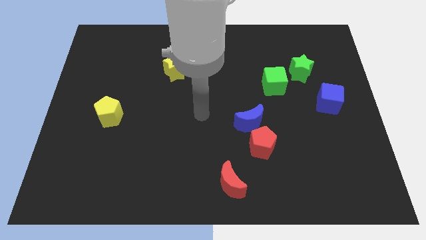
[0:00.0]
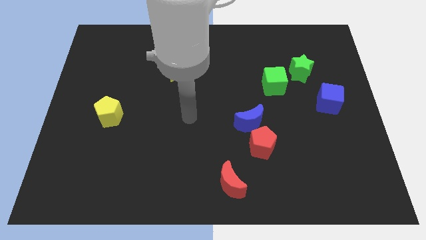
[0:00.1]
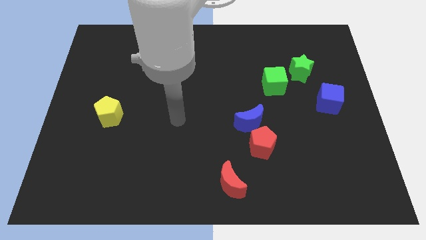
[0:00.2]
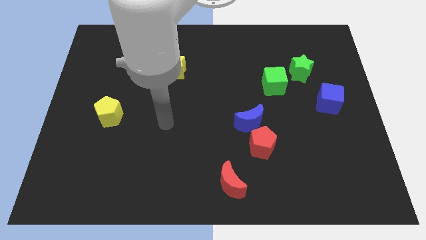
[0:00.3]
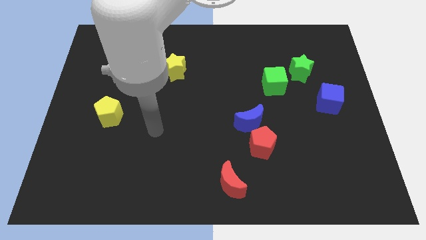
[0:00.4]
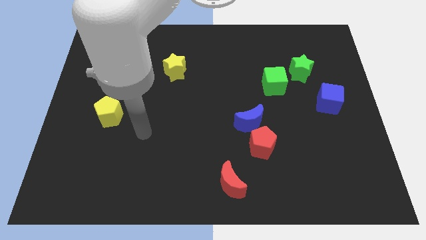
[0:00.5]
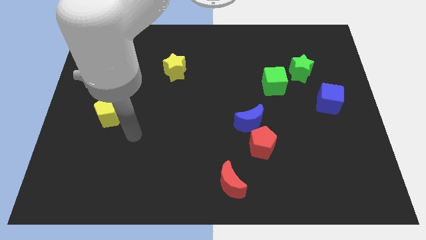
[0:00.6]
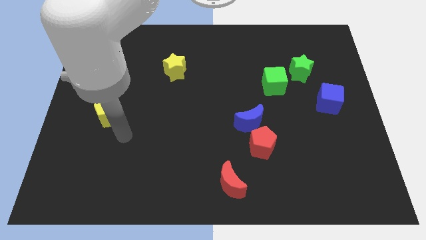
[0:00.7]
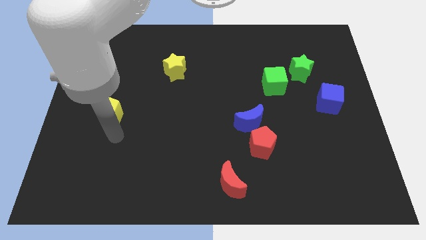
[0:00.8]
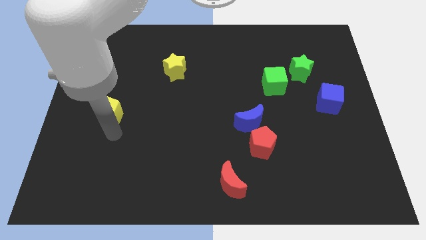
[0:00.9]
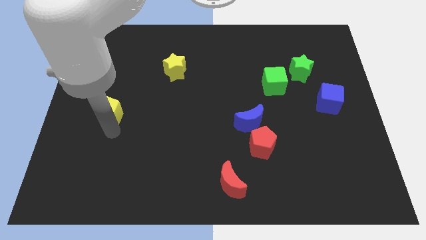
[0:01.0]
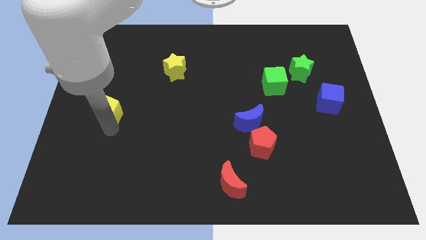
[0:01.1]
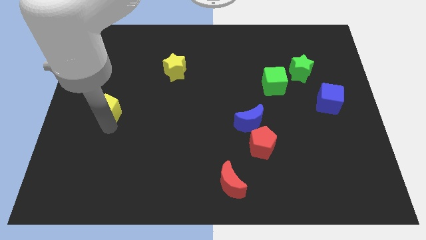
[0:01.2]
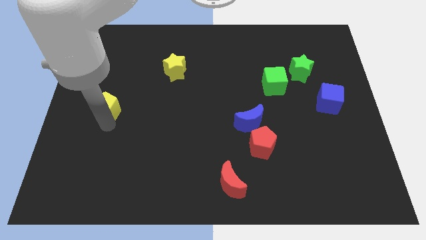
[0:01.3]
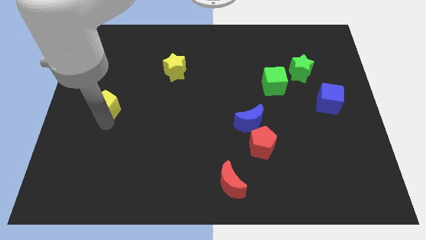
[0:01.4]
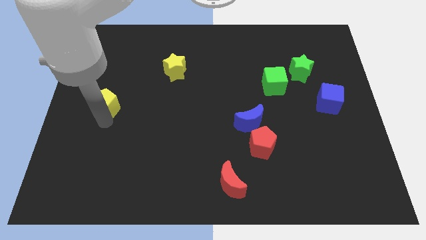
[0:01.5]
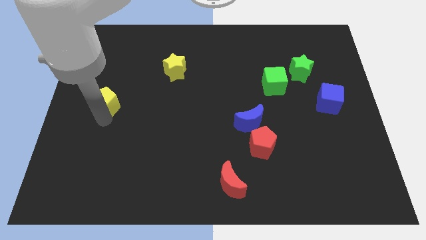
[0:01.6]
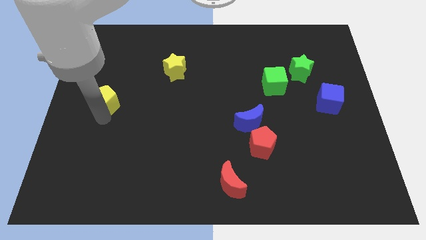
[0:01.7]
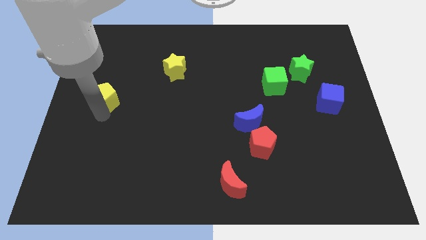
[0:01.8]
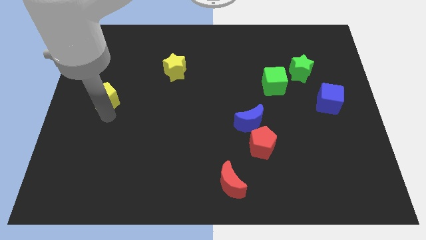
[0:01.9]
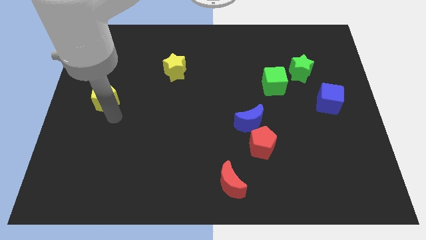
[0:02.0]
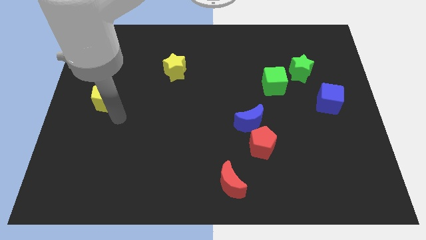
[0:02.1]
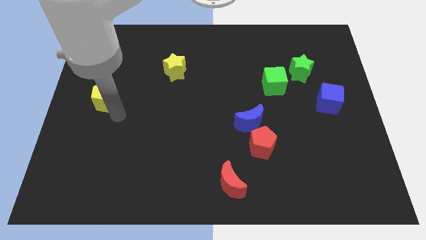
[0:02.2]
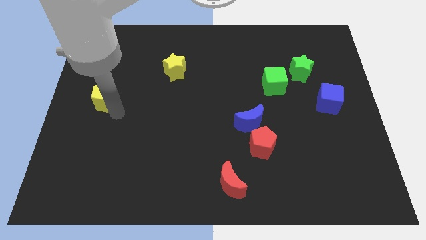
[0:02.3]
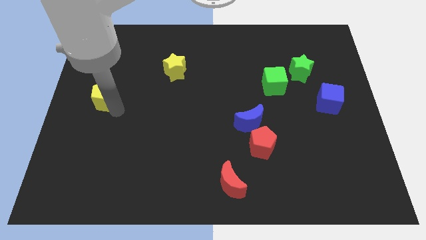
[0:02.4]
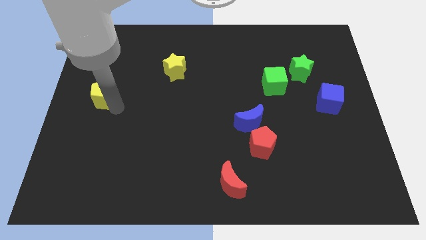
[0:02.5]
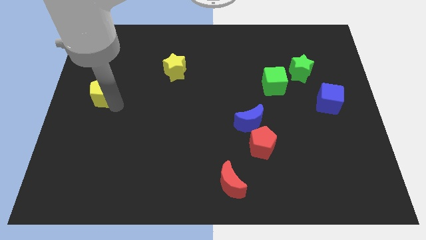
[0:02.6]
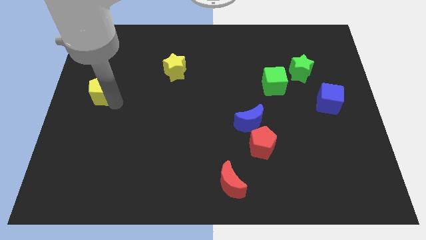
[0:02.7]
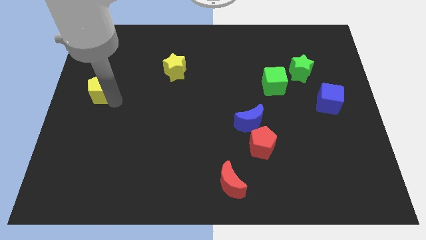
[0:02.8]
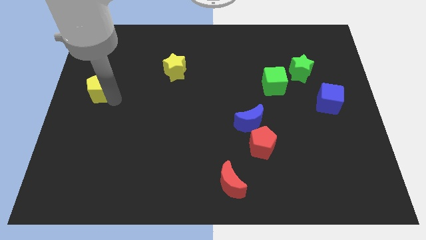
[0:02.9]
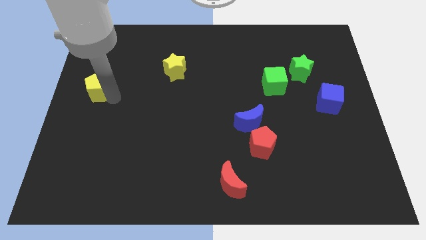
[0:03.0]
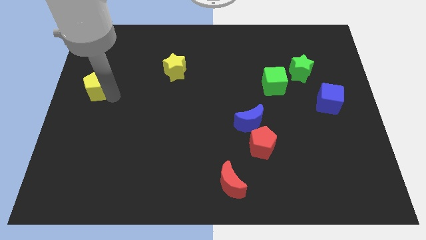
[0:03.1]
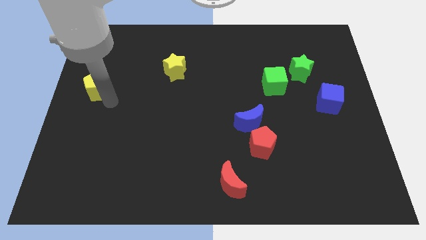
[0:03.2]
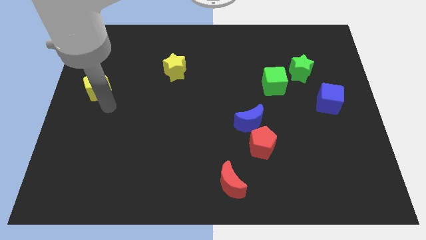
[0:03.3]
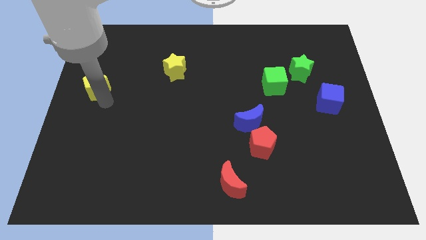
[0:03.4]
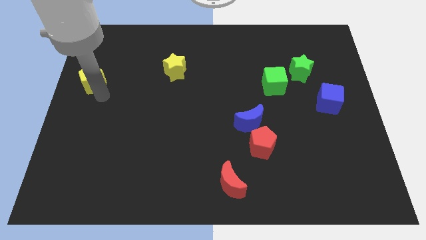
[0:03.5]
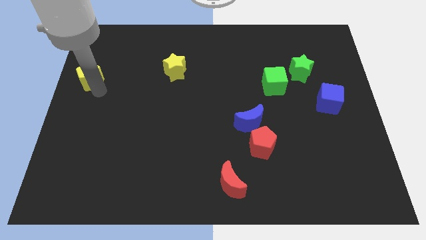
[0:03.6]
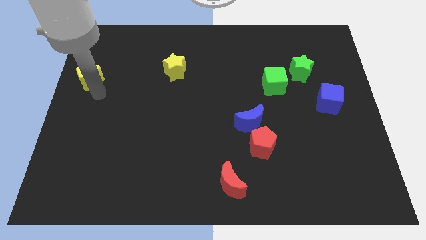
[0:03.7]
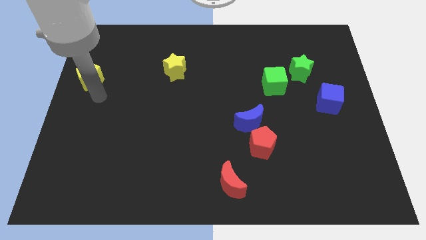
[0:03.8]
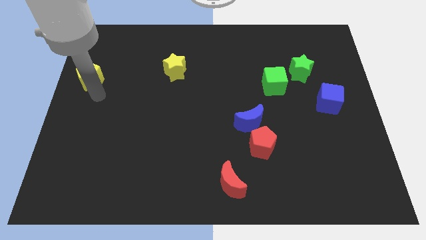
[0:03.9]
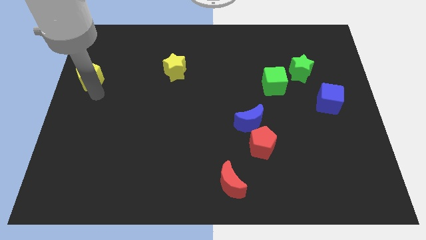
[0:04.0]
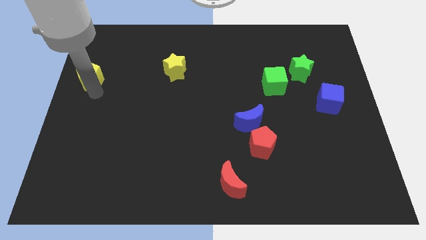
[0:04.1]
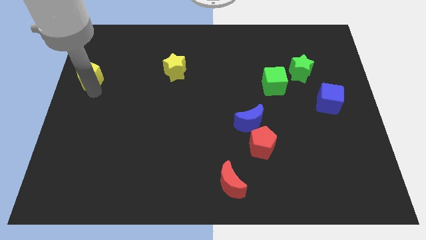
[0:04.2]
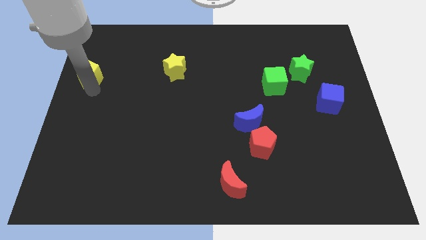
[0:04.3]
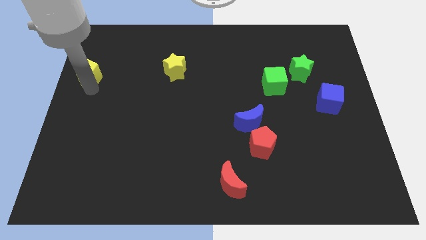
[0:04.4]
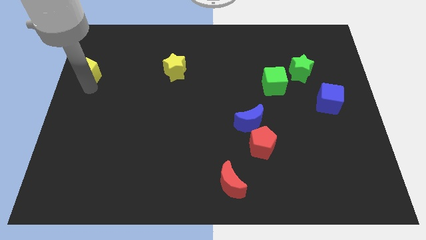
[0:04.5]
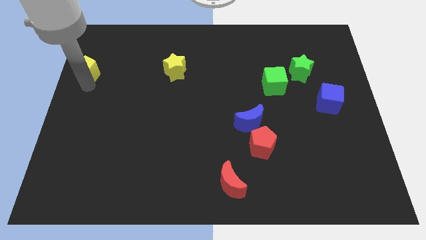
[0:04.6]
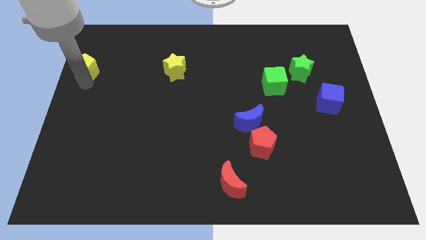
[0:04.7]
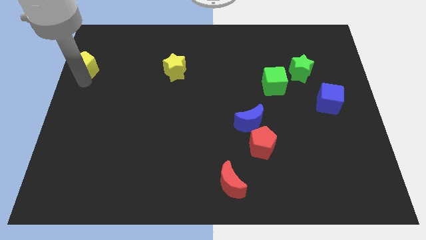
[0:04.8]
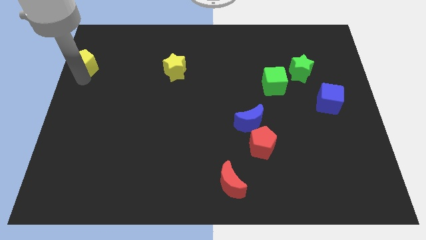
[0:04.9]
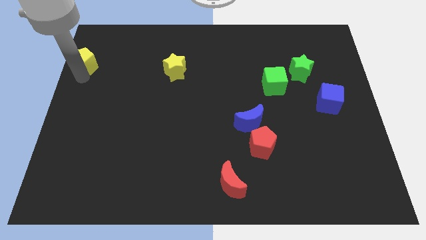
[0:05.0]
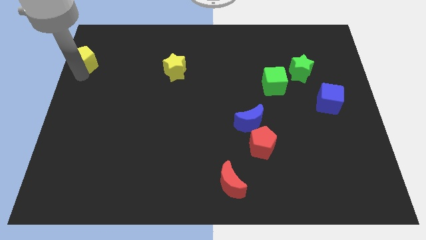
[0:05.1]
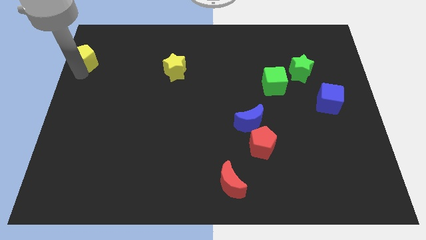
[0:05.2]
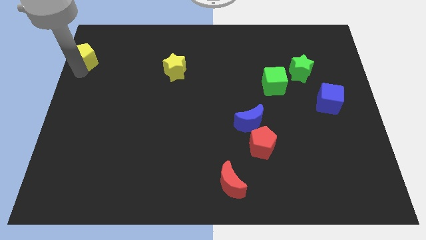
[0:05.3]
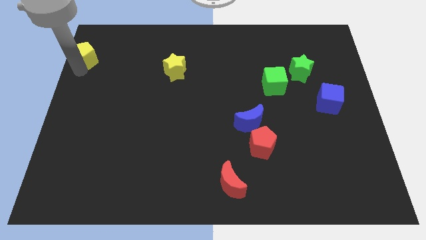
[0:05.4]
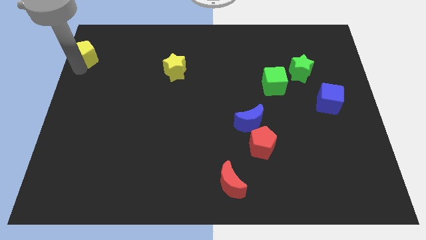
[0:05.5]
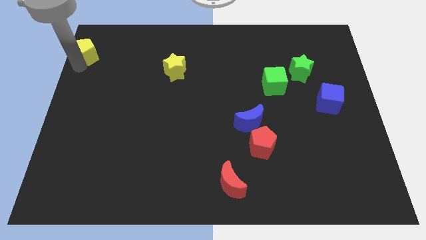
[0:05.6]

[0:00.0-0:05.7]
put the yellow pentagon to the top left corner
